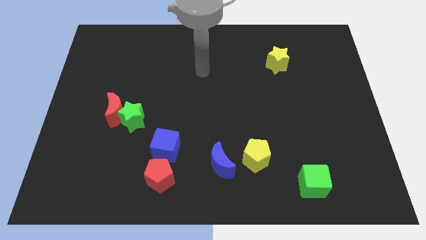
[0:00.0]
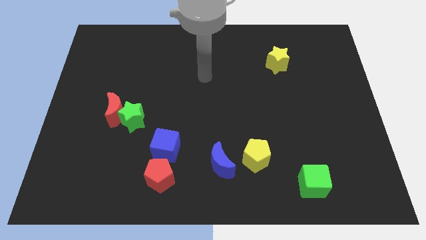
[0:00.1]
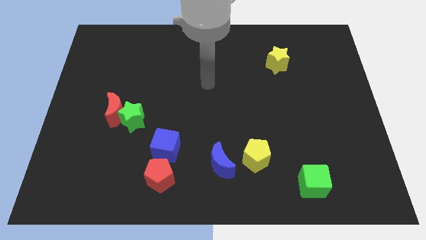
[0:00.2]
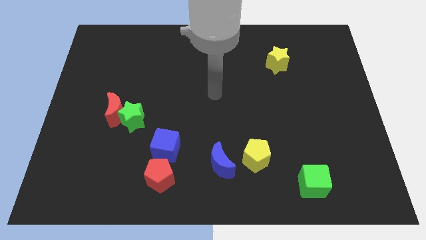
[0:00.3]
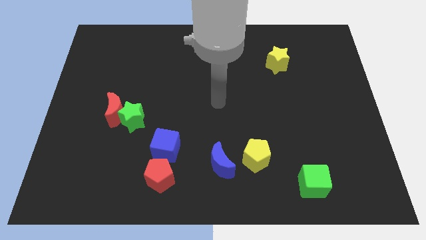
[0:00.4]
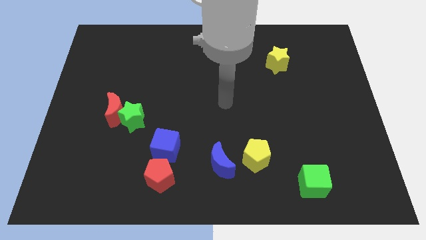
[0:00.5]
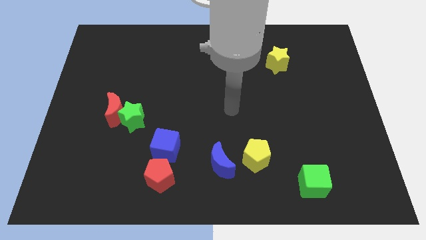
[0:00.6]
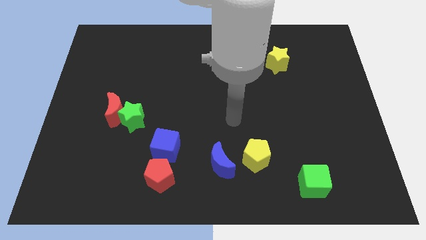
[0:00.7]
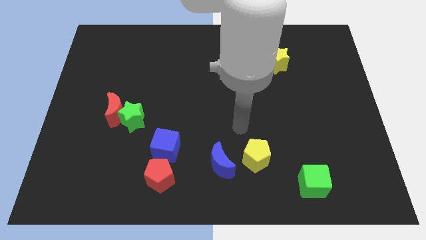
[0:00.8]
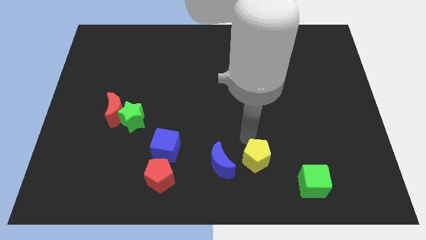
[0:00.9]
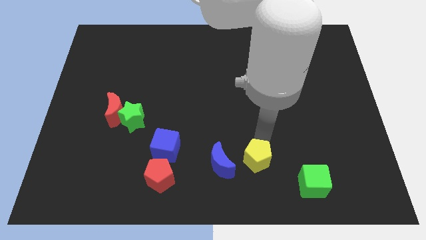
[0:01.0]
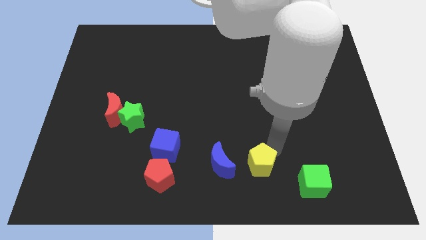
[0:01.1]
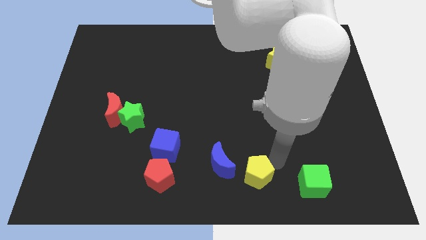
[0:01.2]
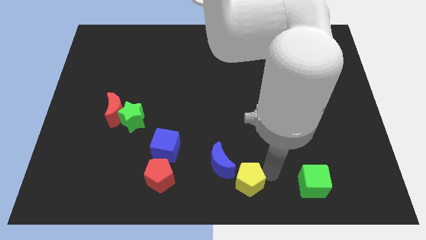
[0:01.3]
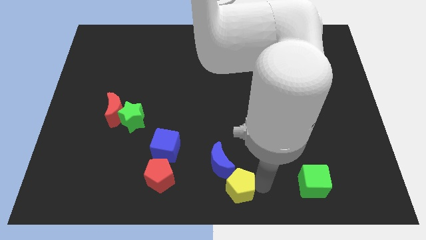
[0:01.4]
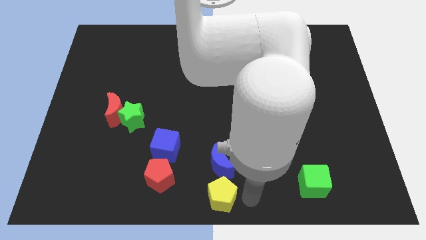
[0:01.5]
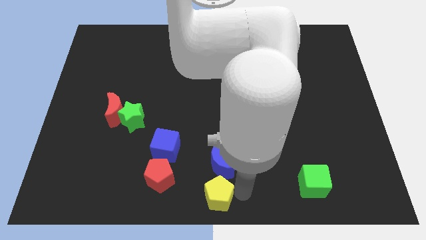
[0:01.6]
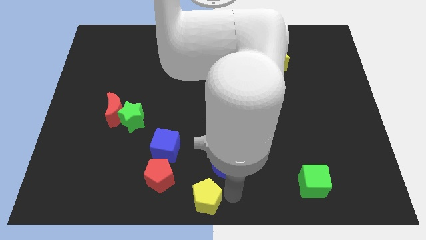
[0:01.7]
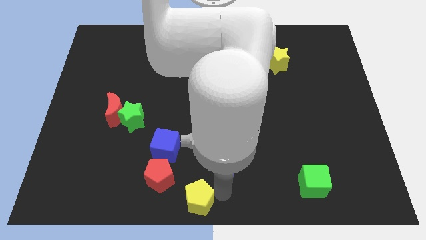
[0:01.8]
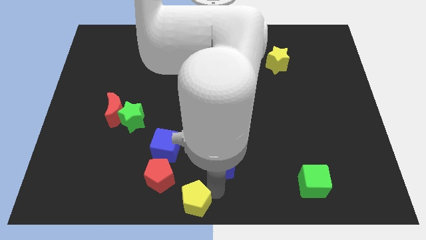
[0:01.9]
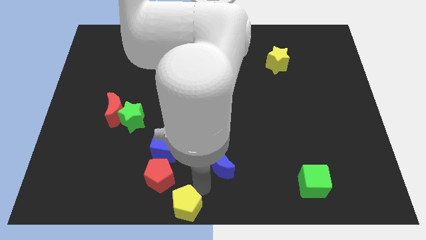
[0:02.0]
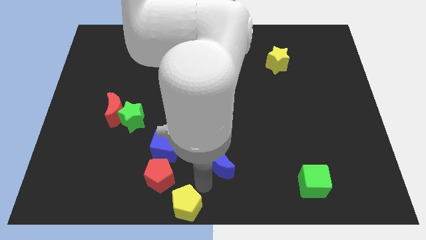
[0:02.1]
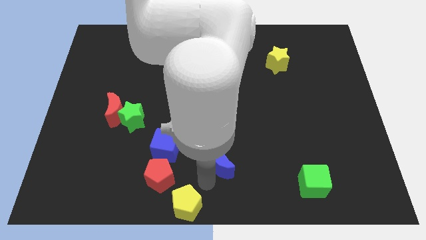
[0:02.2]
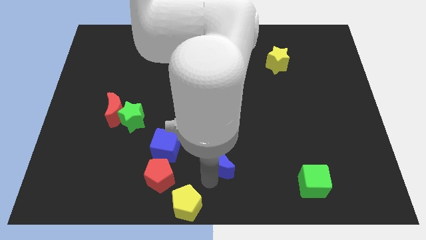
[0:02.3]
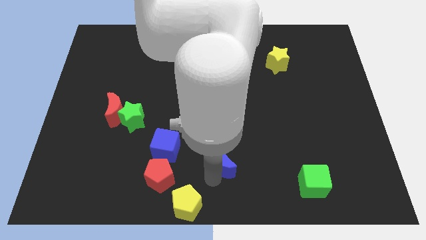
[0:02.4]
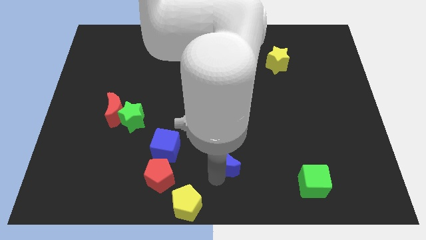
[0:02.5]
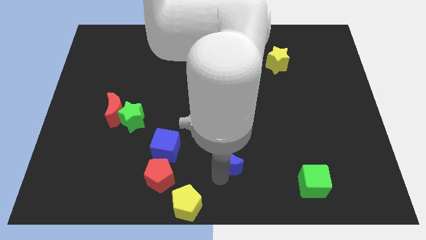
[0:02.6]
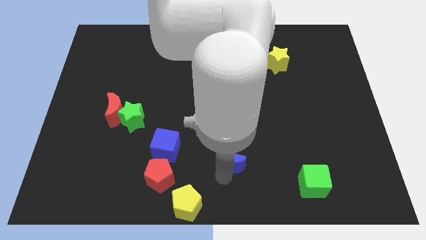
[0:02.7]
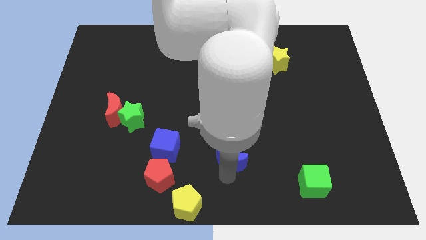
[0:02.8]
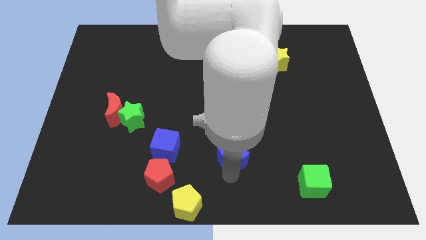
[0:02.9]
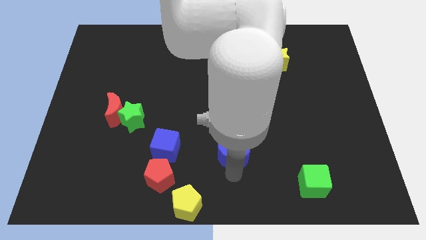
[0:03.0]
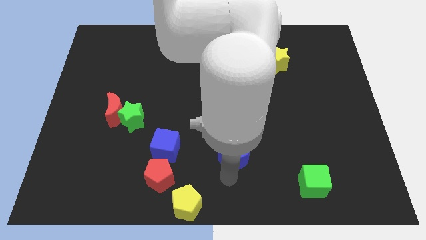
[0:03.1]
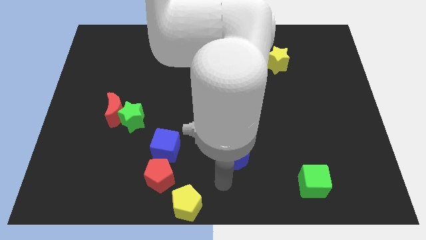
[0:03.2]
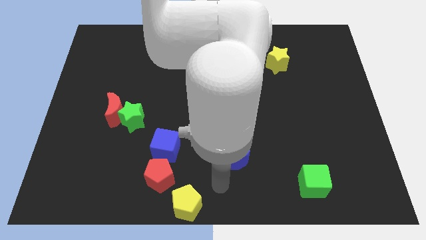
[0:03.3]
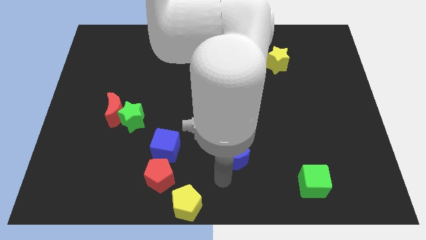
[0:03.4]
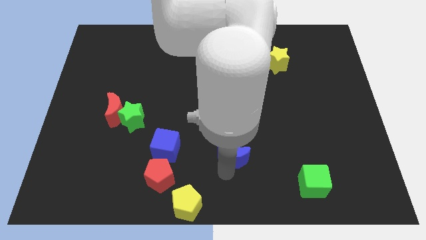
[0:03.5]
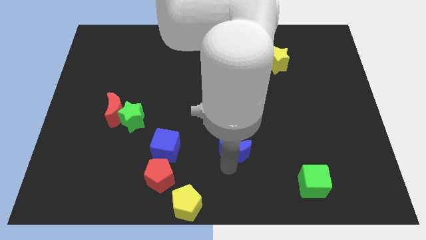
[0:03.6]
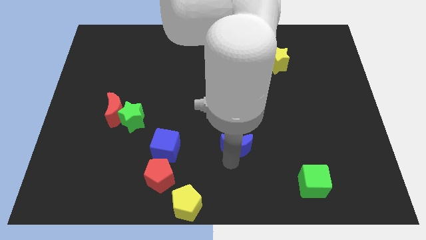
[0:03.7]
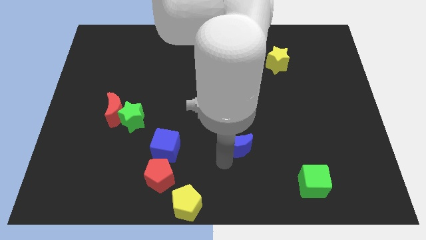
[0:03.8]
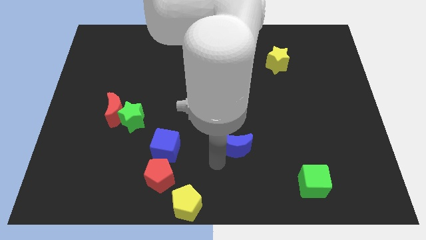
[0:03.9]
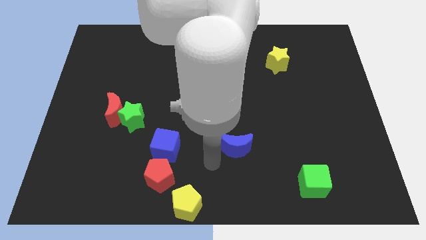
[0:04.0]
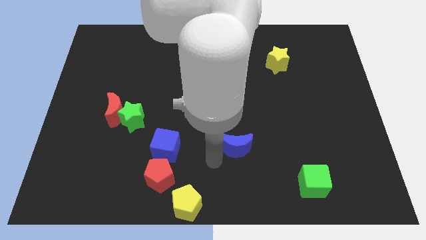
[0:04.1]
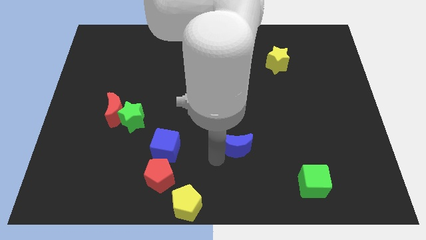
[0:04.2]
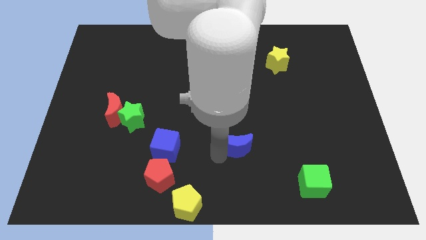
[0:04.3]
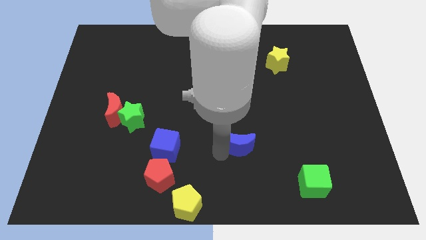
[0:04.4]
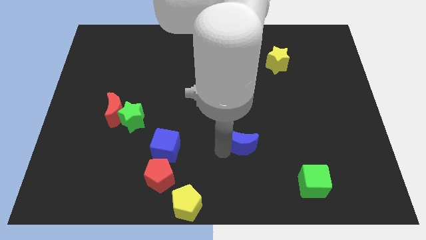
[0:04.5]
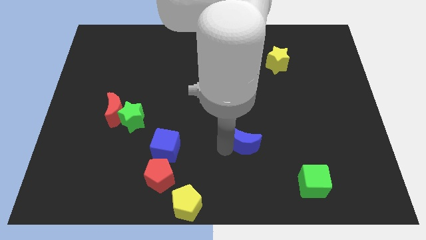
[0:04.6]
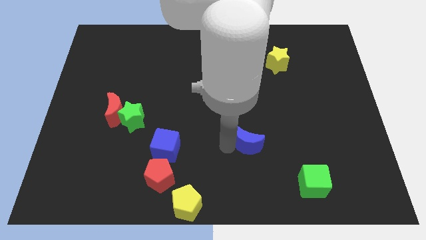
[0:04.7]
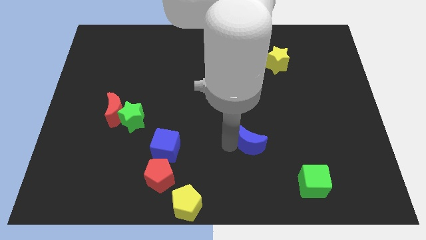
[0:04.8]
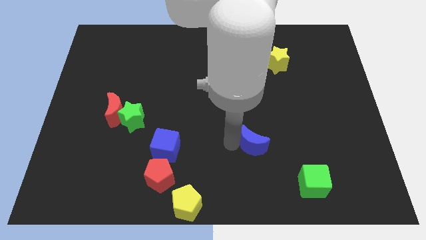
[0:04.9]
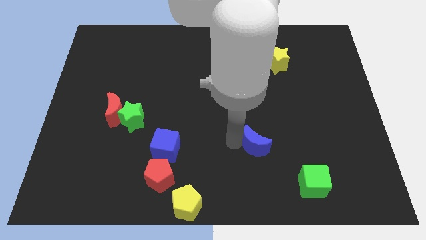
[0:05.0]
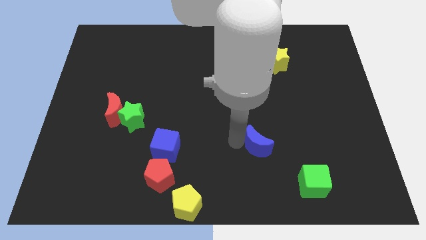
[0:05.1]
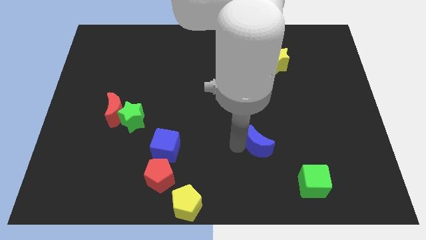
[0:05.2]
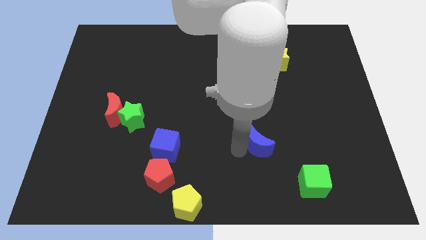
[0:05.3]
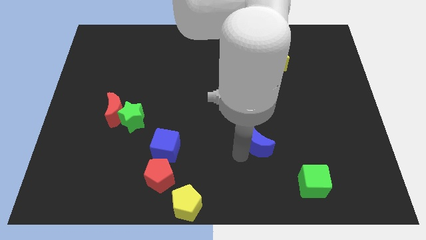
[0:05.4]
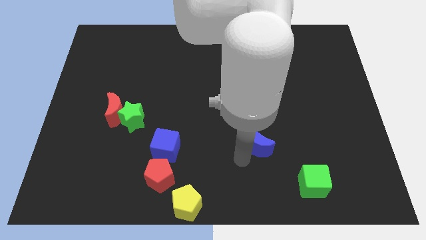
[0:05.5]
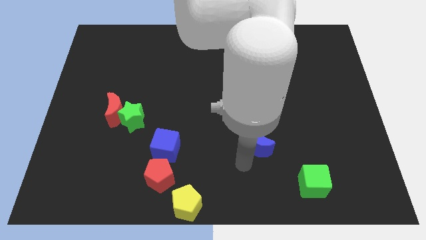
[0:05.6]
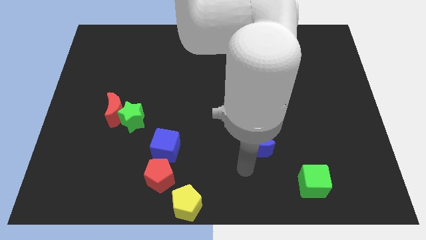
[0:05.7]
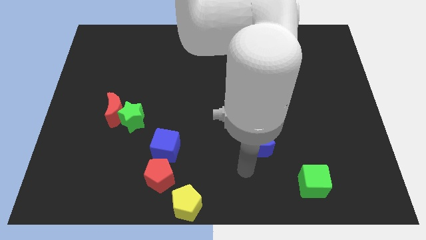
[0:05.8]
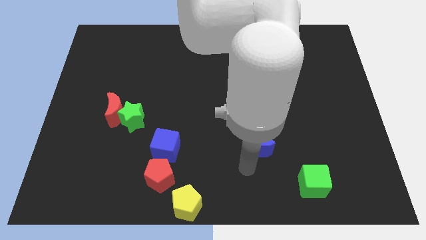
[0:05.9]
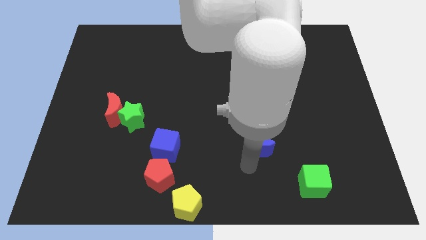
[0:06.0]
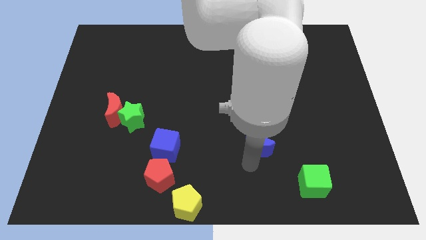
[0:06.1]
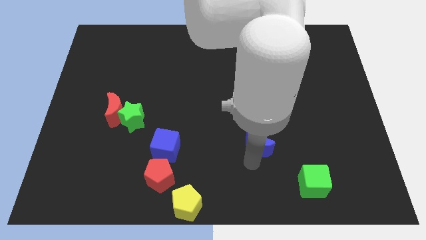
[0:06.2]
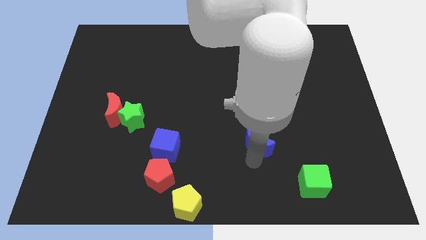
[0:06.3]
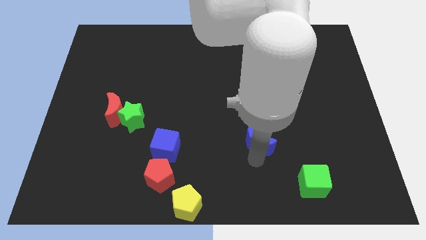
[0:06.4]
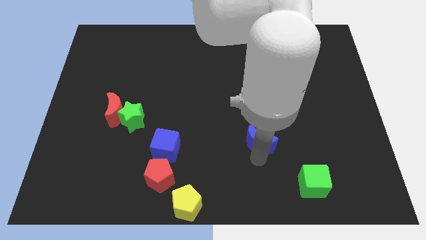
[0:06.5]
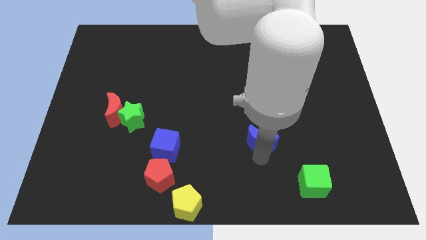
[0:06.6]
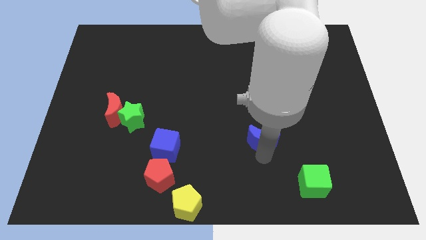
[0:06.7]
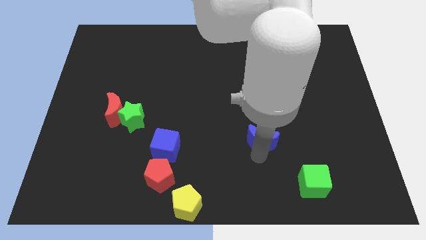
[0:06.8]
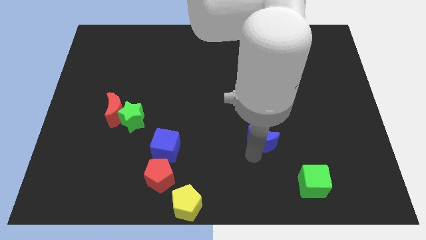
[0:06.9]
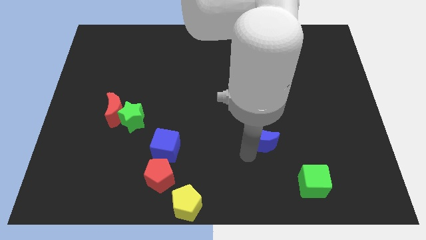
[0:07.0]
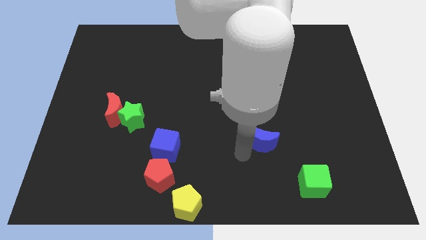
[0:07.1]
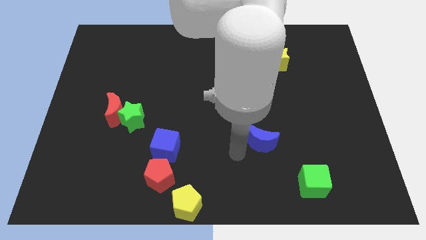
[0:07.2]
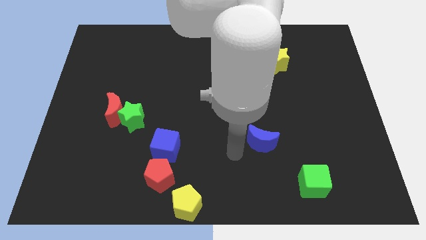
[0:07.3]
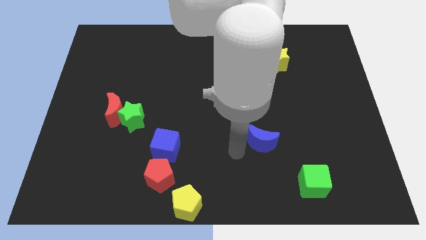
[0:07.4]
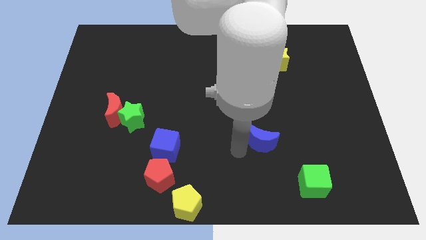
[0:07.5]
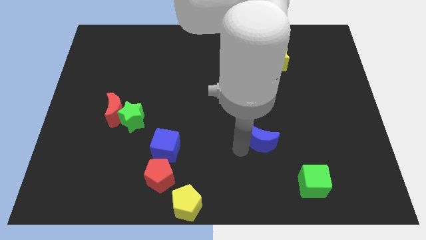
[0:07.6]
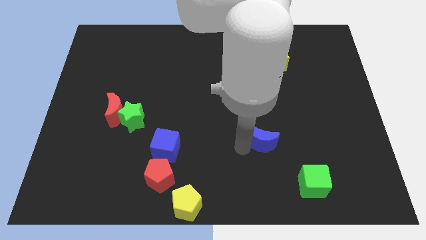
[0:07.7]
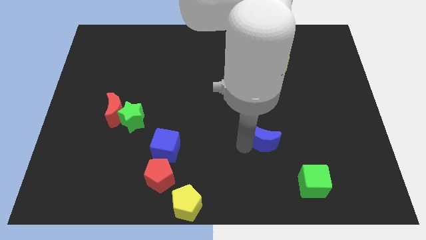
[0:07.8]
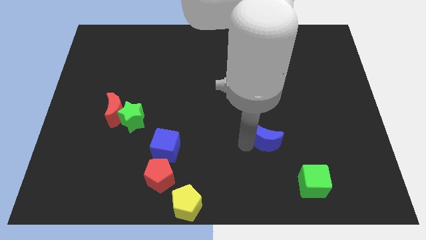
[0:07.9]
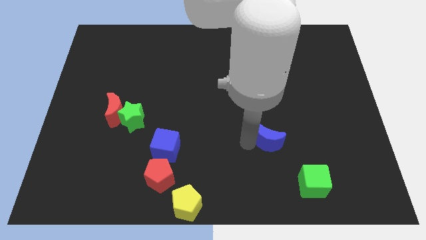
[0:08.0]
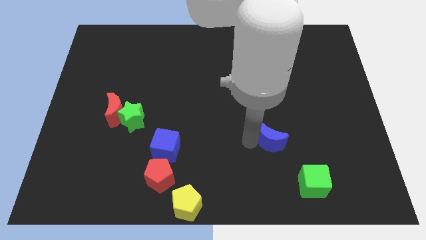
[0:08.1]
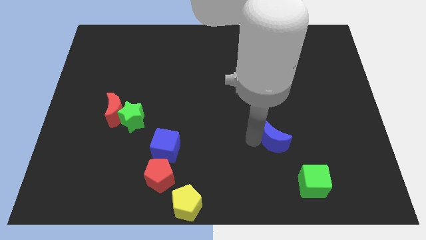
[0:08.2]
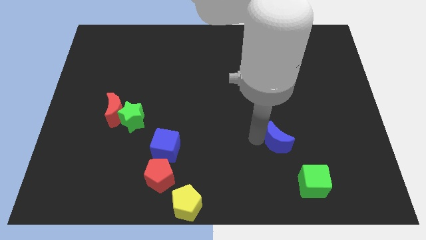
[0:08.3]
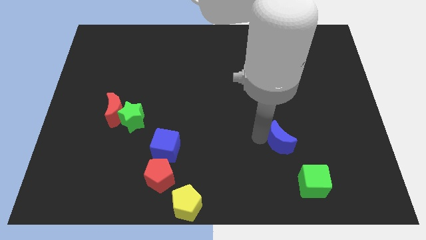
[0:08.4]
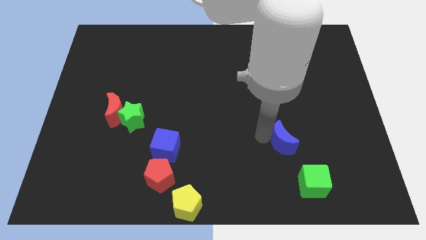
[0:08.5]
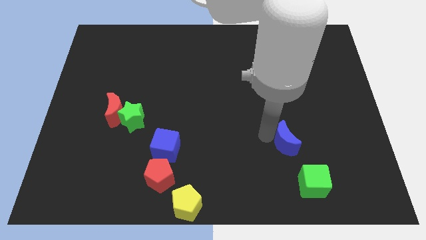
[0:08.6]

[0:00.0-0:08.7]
slide the blue moon to the top side of the green cube
